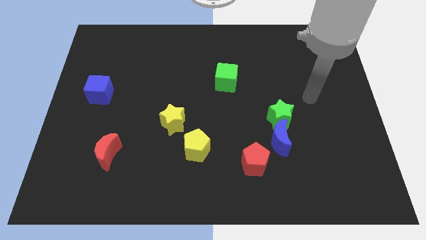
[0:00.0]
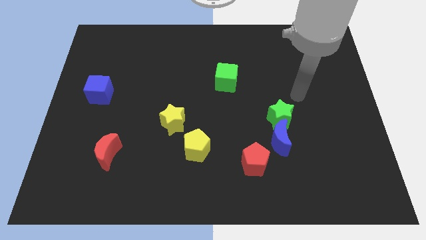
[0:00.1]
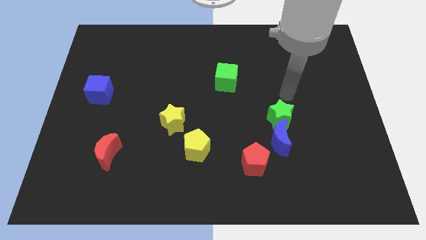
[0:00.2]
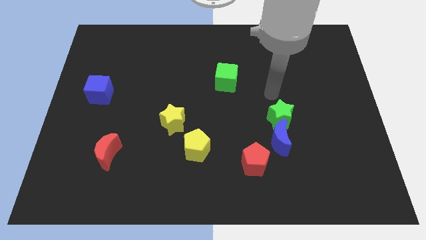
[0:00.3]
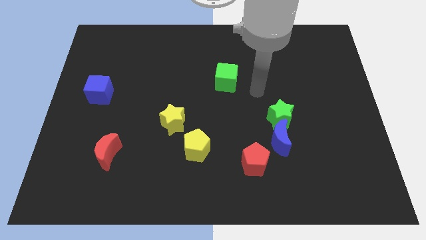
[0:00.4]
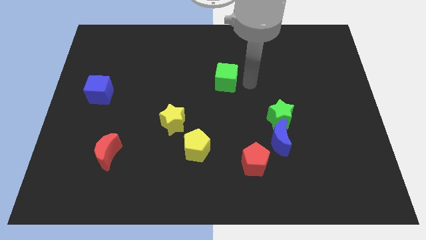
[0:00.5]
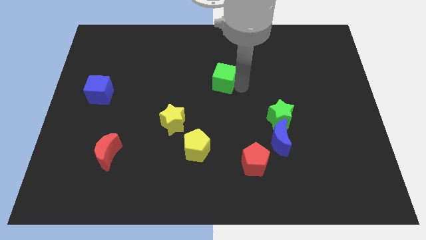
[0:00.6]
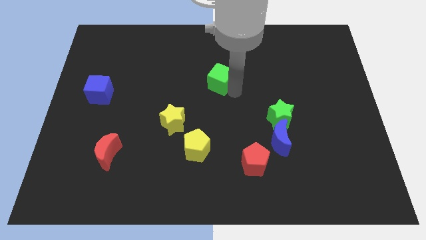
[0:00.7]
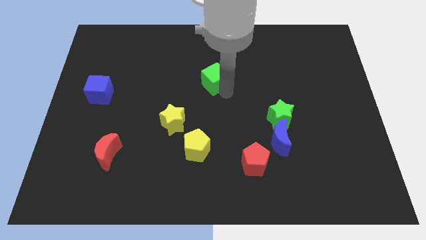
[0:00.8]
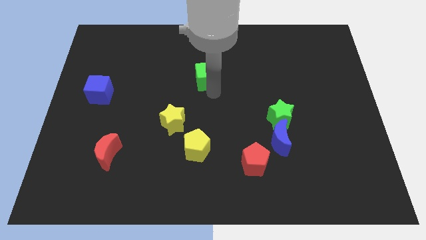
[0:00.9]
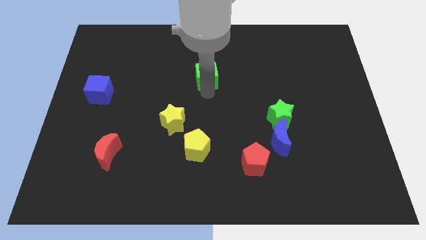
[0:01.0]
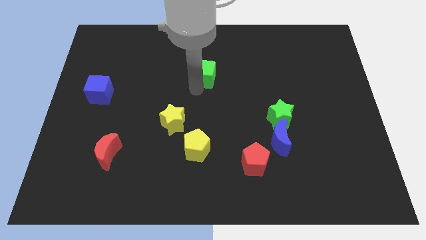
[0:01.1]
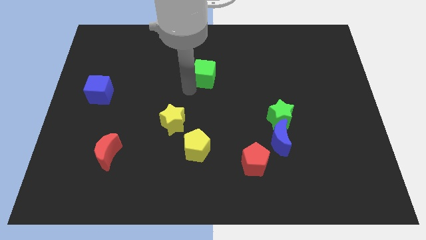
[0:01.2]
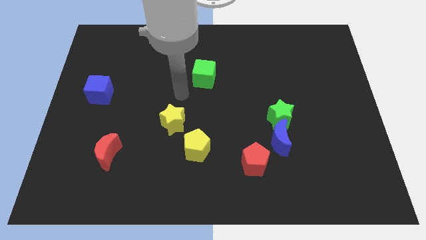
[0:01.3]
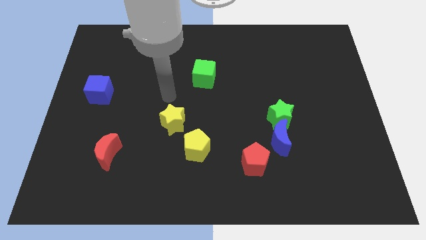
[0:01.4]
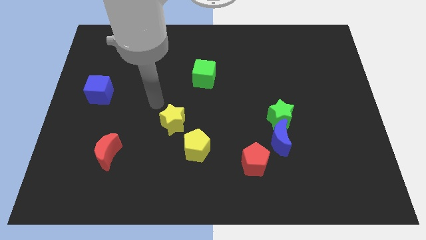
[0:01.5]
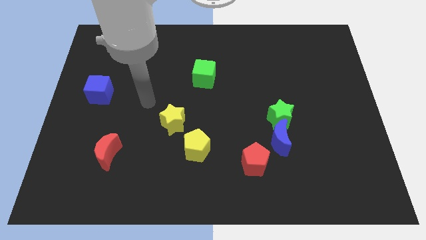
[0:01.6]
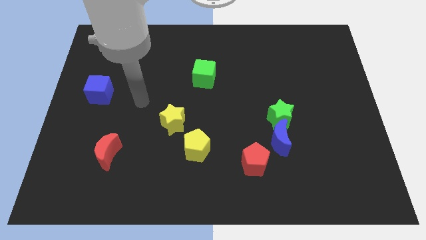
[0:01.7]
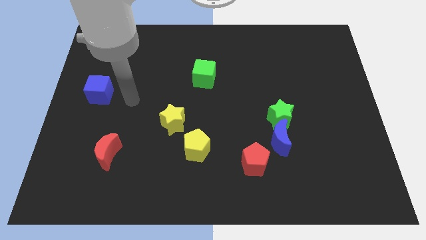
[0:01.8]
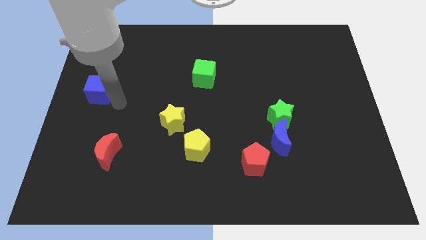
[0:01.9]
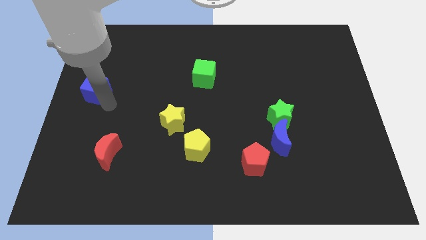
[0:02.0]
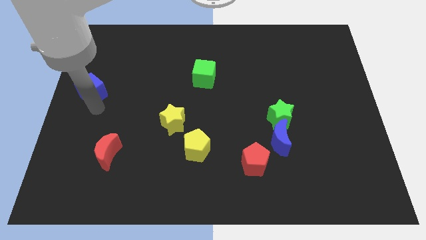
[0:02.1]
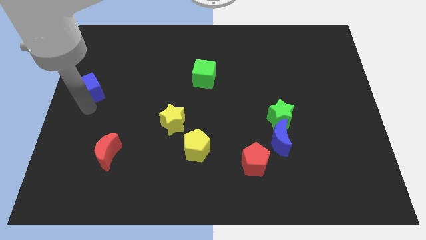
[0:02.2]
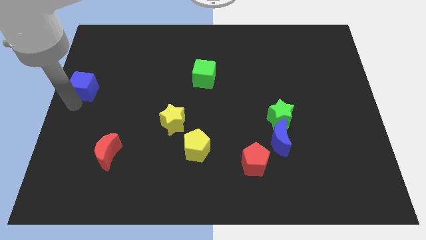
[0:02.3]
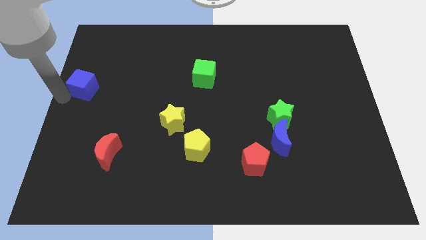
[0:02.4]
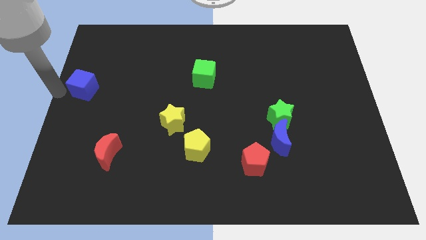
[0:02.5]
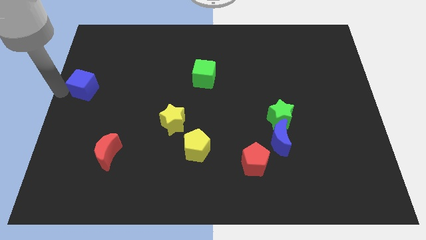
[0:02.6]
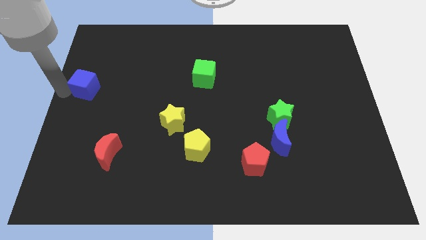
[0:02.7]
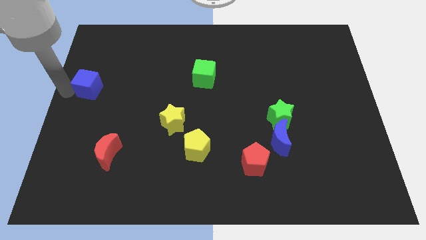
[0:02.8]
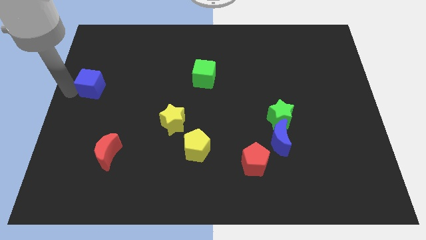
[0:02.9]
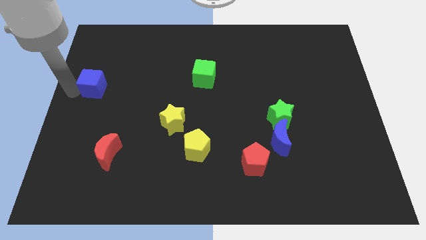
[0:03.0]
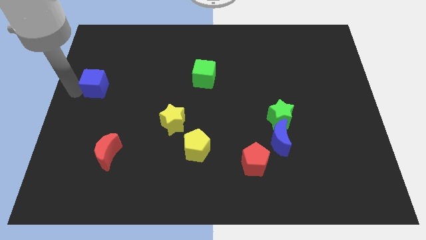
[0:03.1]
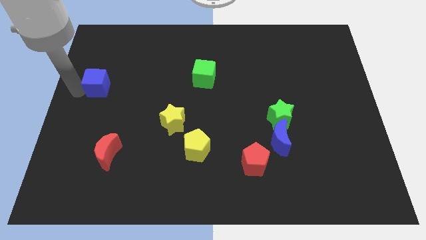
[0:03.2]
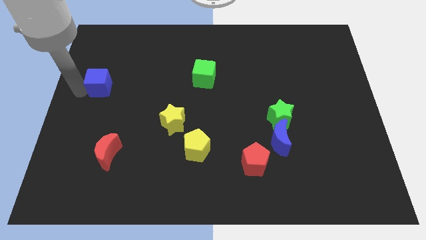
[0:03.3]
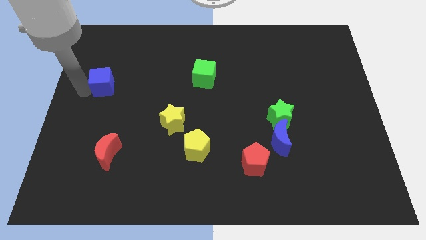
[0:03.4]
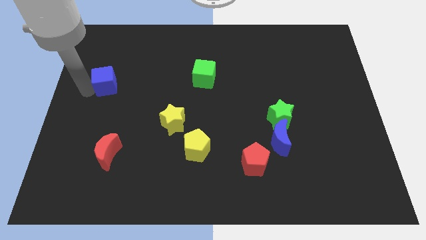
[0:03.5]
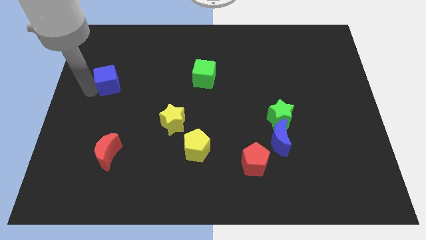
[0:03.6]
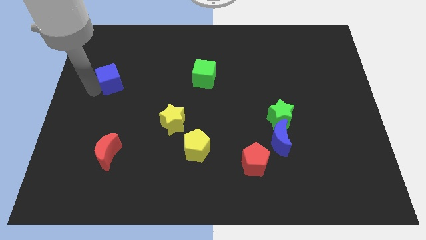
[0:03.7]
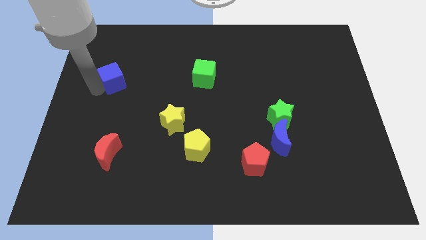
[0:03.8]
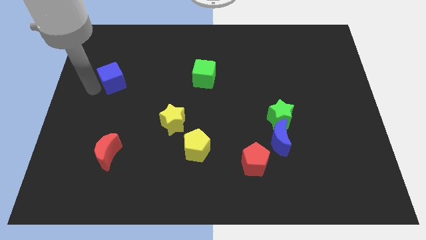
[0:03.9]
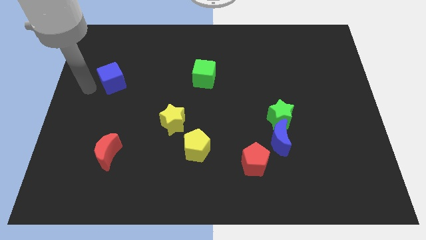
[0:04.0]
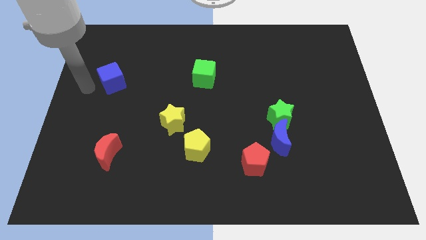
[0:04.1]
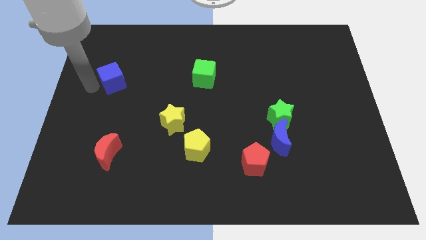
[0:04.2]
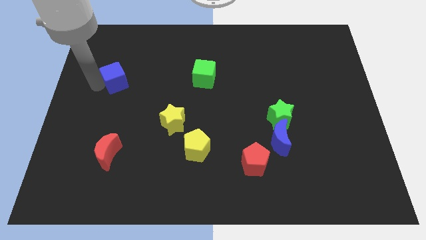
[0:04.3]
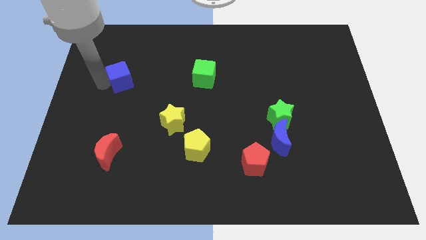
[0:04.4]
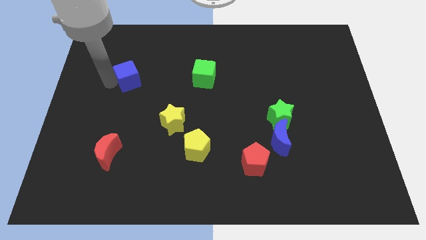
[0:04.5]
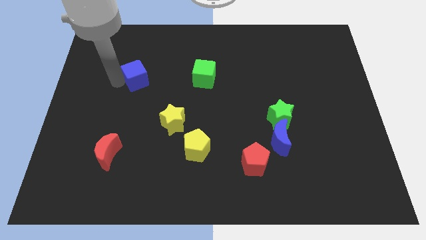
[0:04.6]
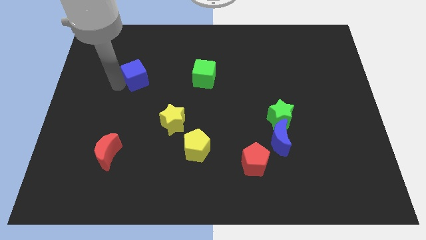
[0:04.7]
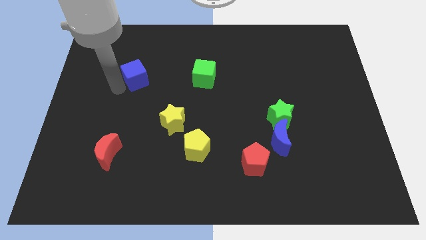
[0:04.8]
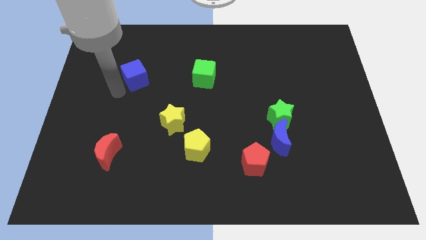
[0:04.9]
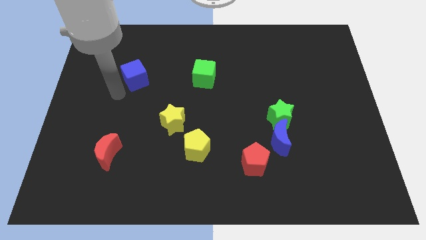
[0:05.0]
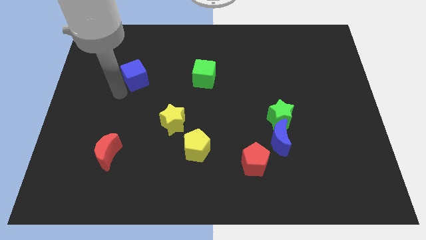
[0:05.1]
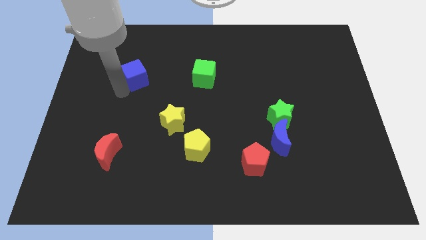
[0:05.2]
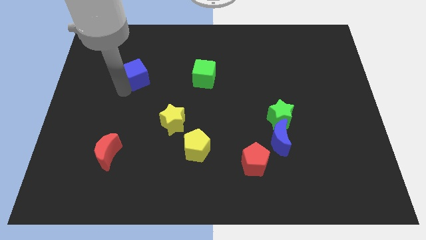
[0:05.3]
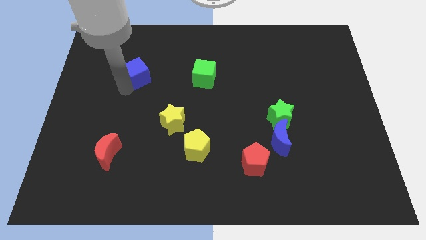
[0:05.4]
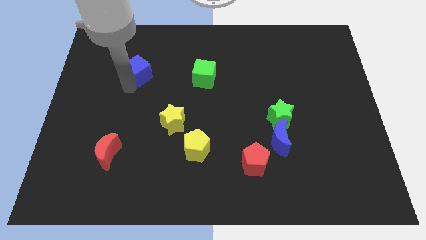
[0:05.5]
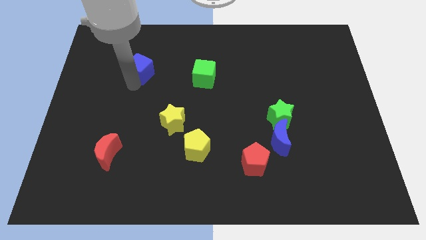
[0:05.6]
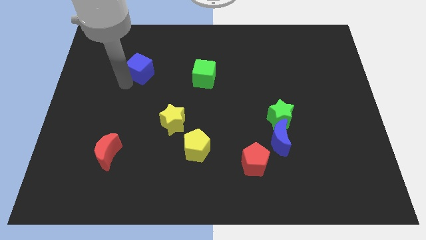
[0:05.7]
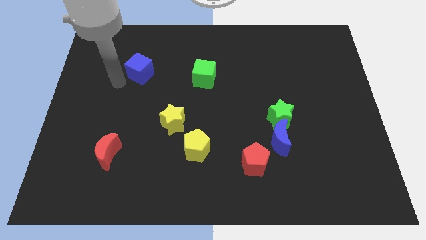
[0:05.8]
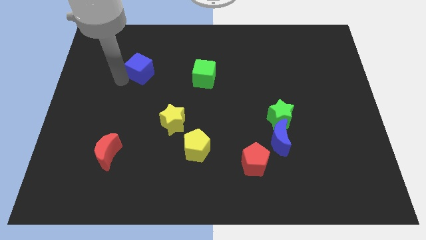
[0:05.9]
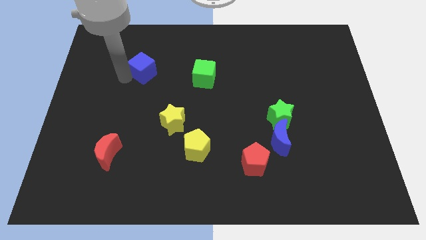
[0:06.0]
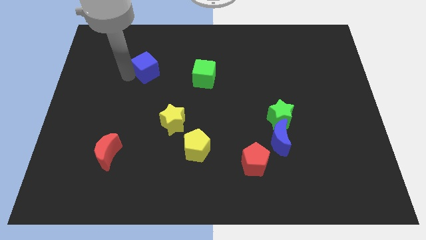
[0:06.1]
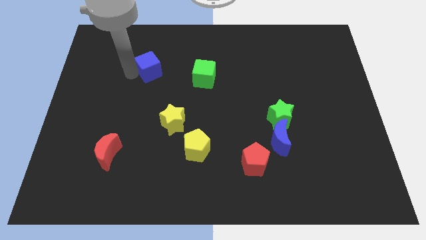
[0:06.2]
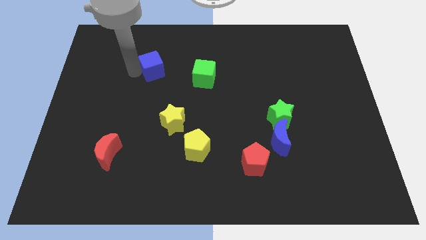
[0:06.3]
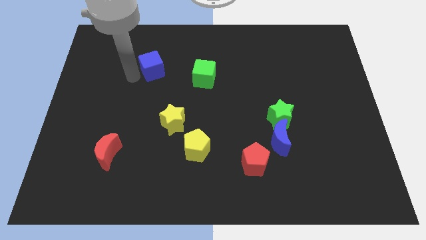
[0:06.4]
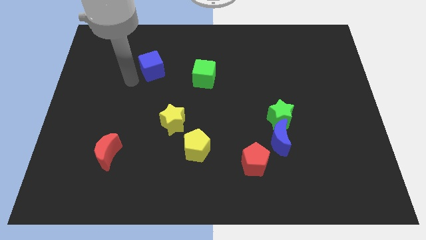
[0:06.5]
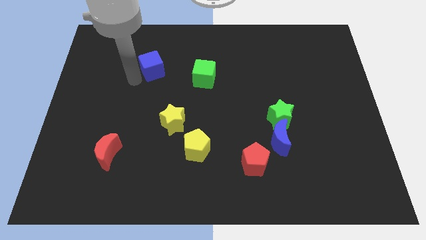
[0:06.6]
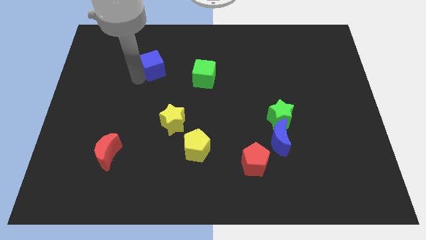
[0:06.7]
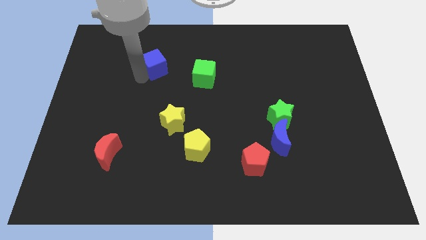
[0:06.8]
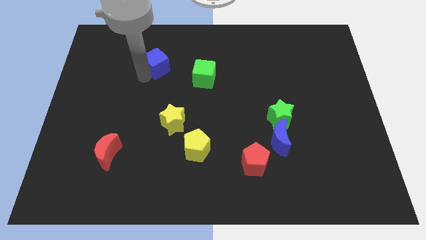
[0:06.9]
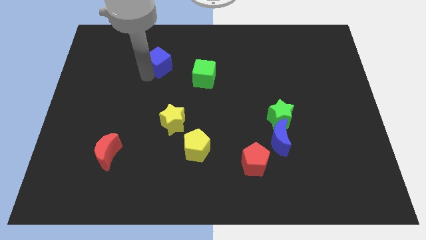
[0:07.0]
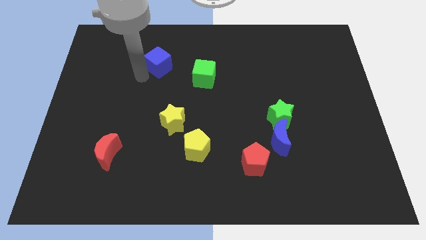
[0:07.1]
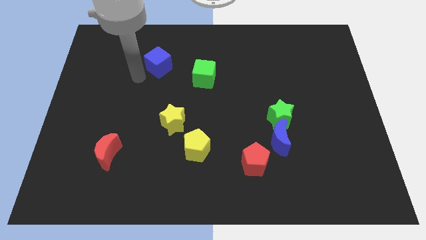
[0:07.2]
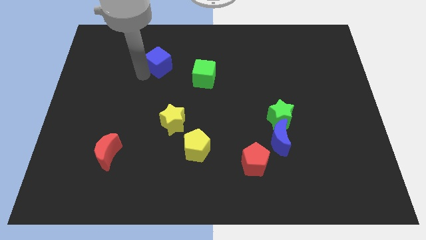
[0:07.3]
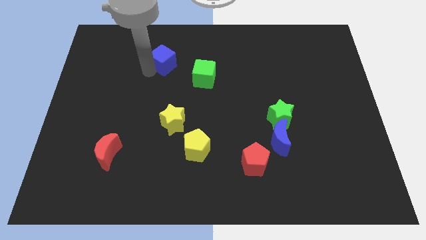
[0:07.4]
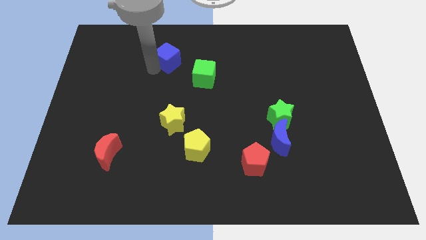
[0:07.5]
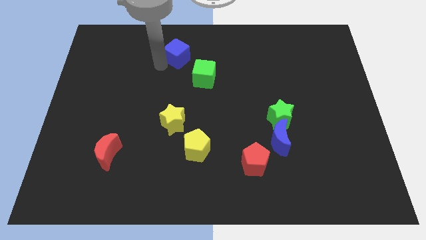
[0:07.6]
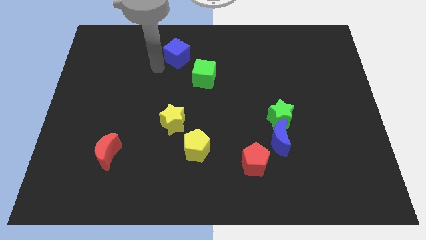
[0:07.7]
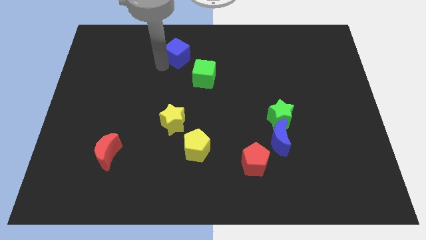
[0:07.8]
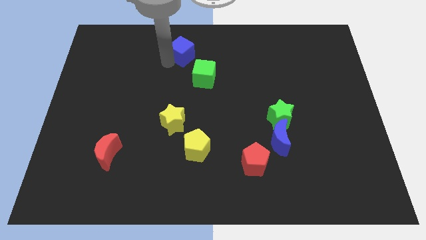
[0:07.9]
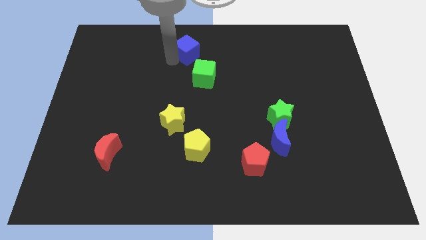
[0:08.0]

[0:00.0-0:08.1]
put the blue cube to the top
